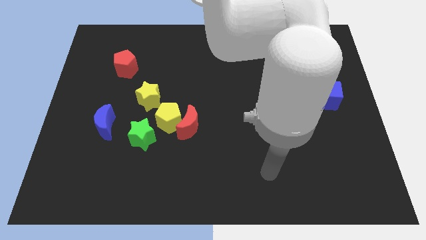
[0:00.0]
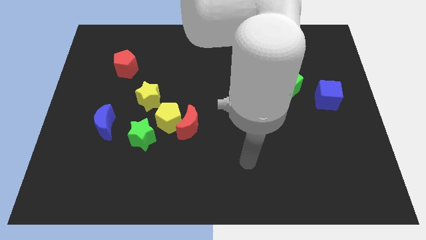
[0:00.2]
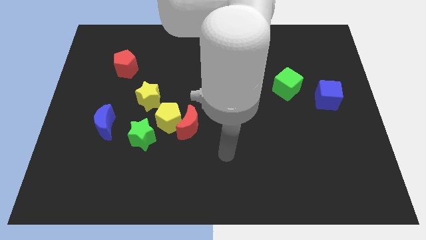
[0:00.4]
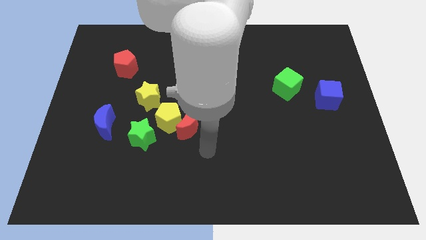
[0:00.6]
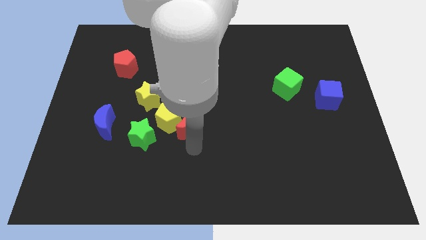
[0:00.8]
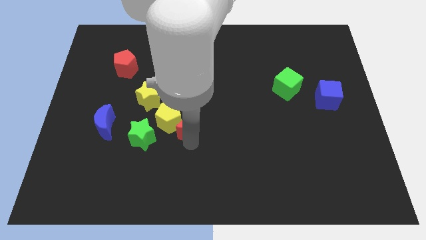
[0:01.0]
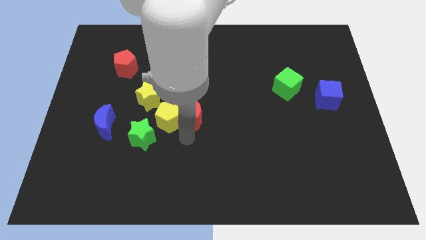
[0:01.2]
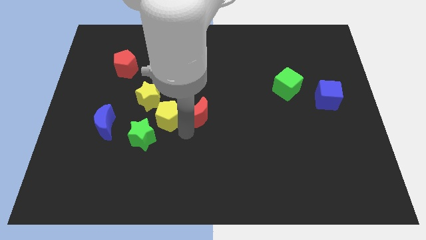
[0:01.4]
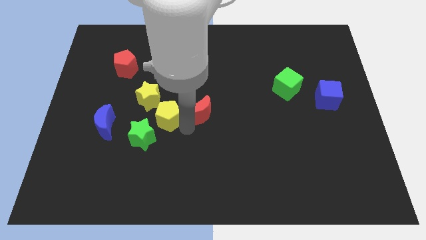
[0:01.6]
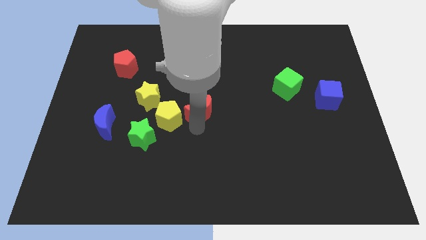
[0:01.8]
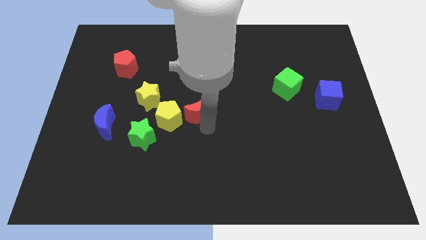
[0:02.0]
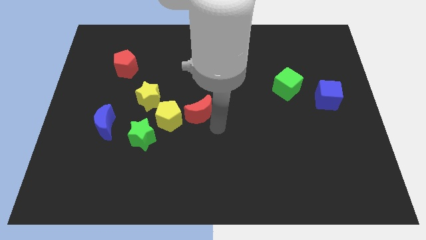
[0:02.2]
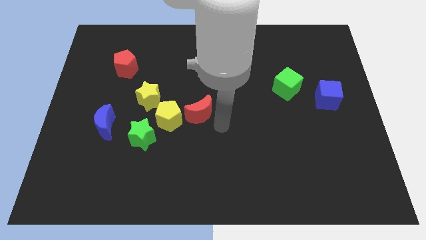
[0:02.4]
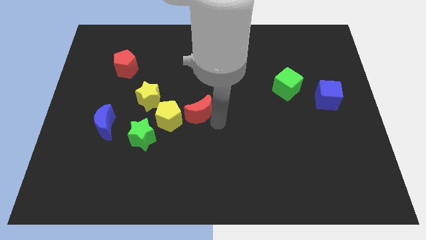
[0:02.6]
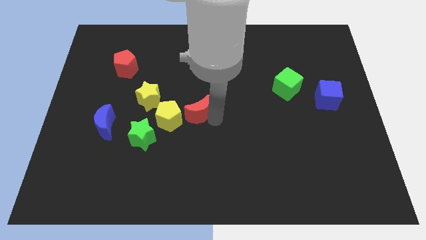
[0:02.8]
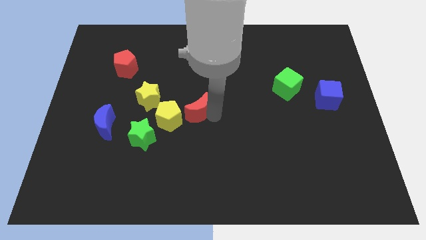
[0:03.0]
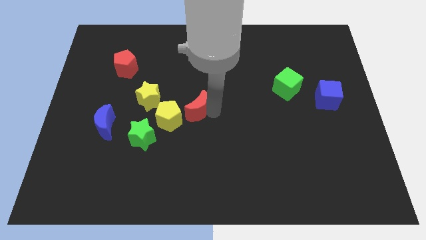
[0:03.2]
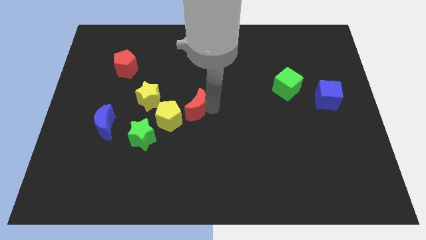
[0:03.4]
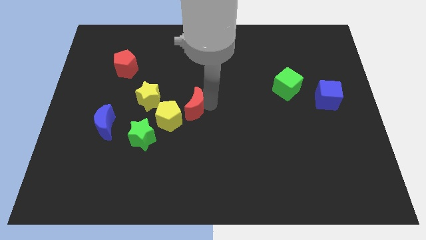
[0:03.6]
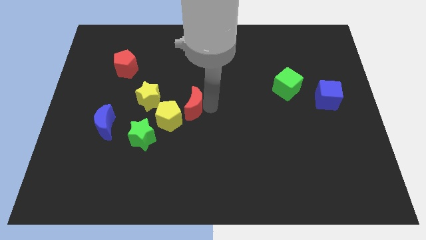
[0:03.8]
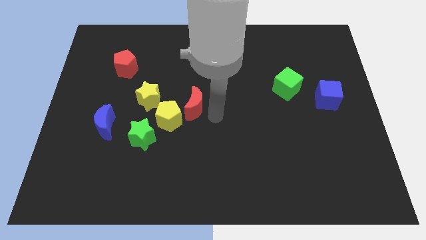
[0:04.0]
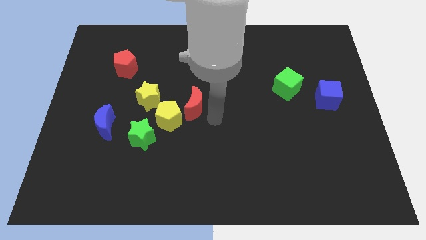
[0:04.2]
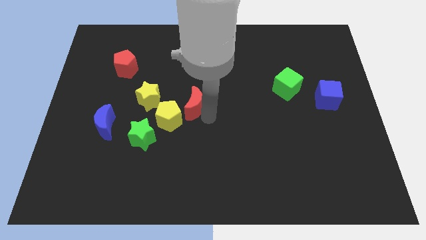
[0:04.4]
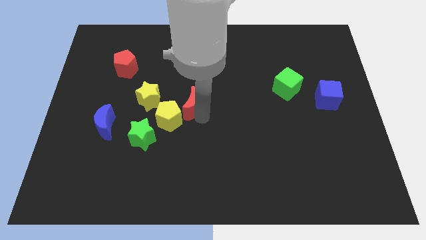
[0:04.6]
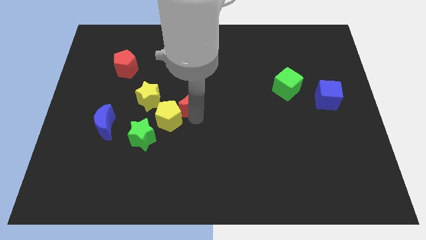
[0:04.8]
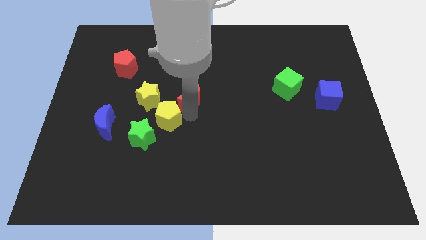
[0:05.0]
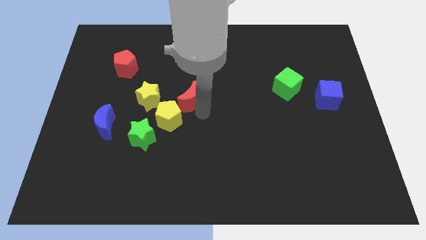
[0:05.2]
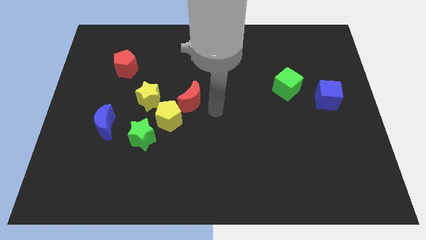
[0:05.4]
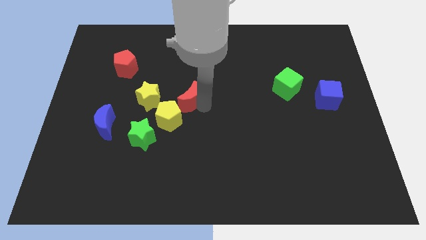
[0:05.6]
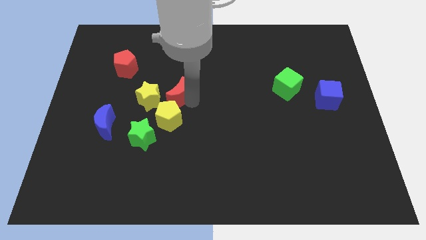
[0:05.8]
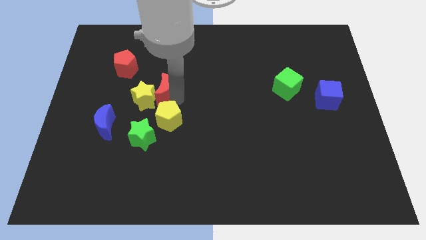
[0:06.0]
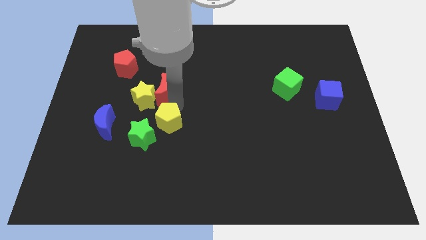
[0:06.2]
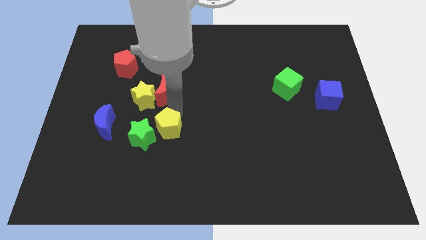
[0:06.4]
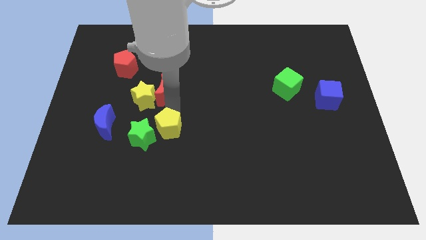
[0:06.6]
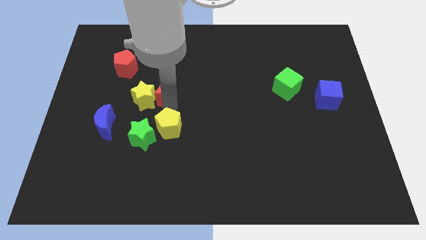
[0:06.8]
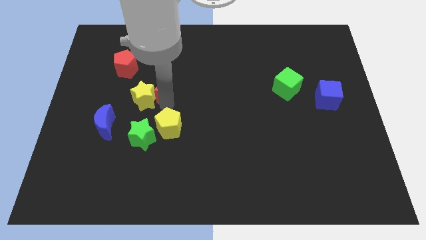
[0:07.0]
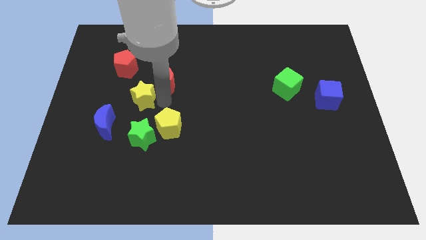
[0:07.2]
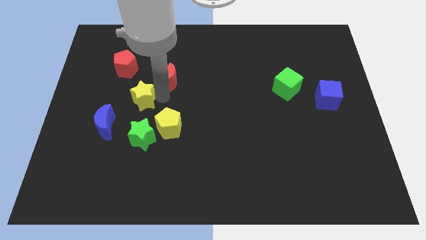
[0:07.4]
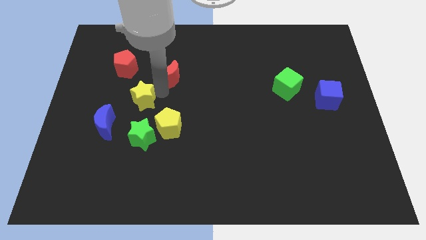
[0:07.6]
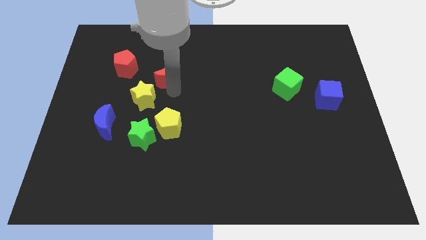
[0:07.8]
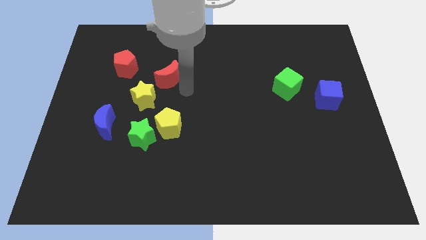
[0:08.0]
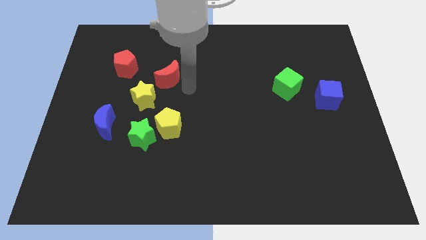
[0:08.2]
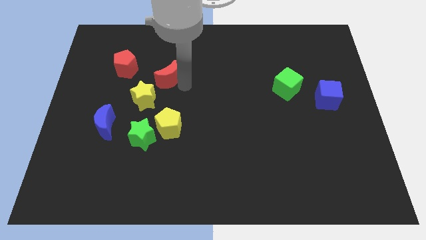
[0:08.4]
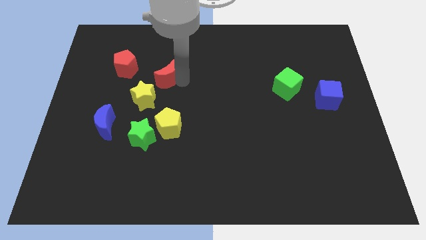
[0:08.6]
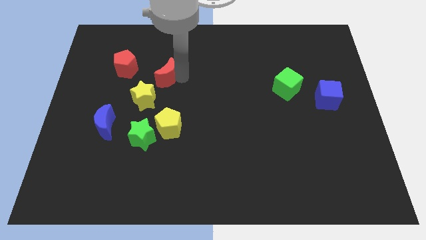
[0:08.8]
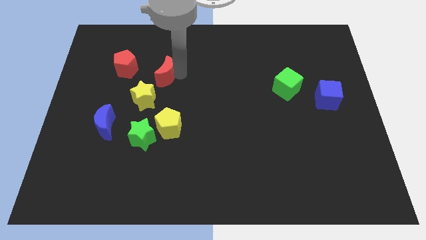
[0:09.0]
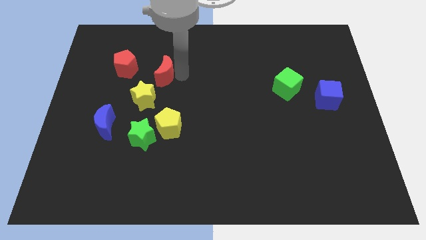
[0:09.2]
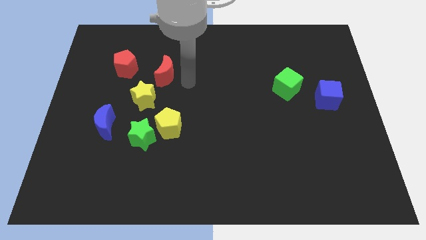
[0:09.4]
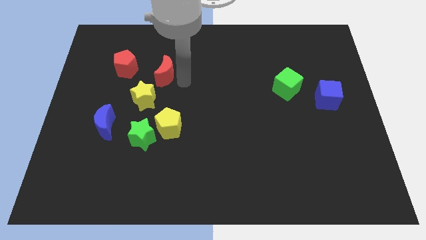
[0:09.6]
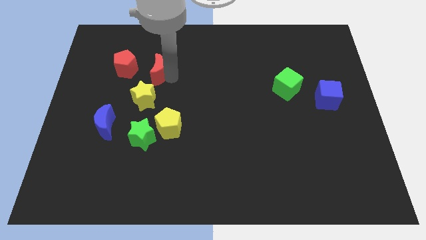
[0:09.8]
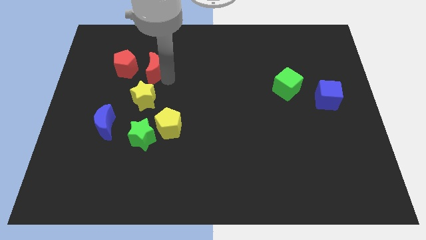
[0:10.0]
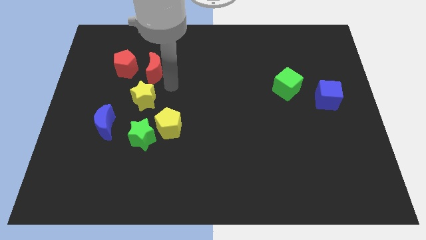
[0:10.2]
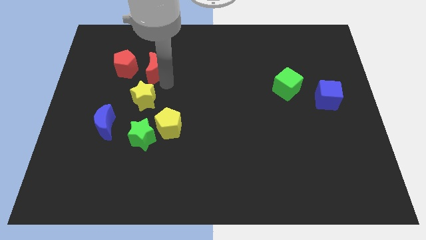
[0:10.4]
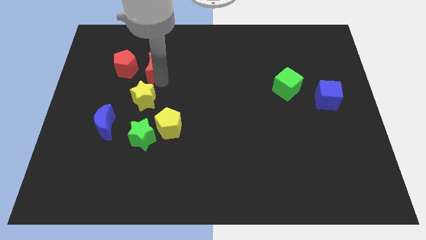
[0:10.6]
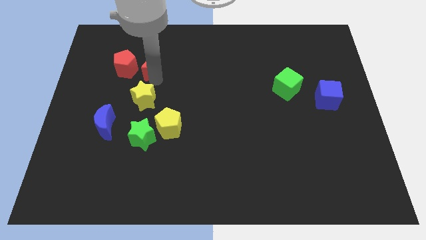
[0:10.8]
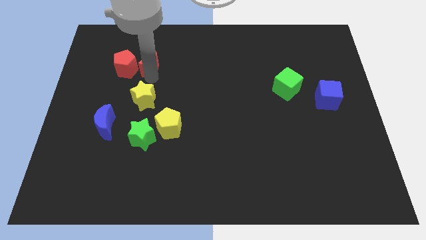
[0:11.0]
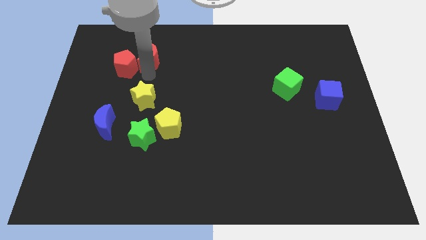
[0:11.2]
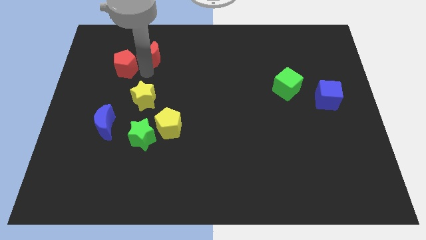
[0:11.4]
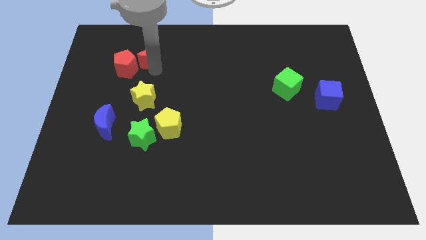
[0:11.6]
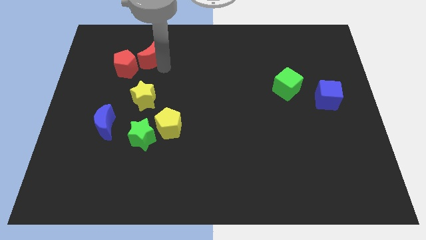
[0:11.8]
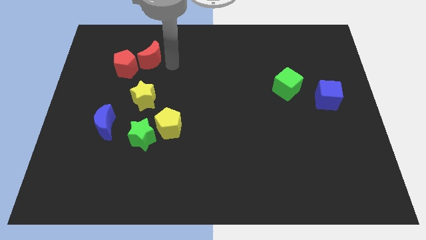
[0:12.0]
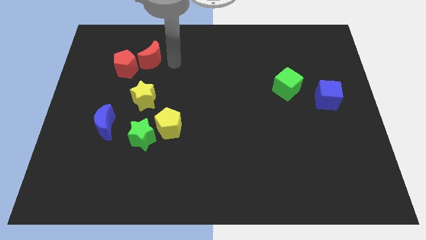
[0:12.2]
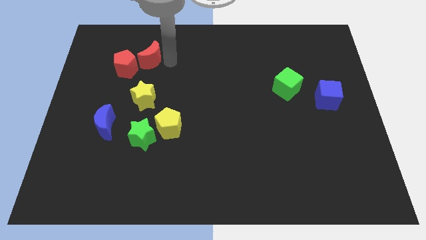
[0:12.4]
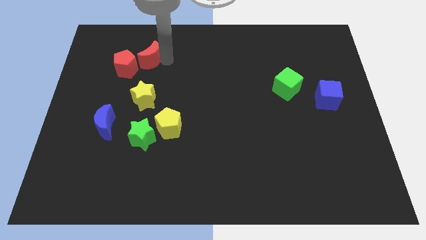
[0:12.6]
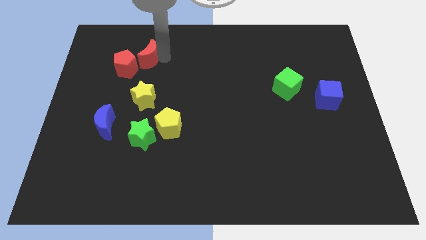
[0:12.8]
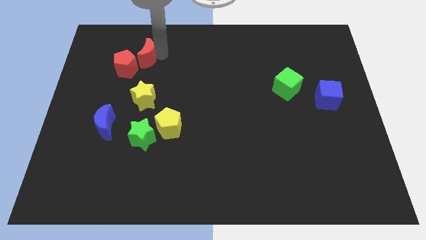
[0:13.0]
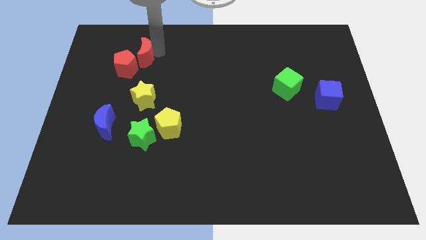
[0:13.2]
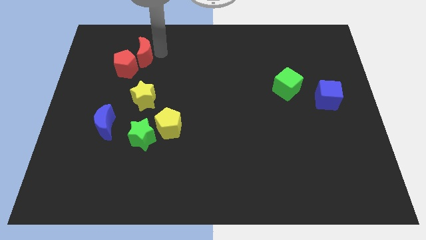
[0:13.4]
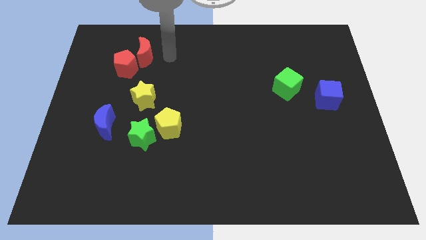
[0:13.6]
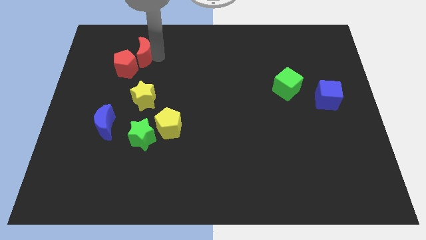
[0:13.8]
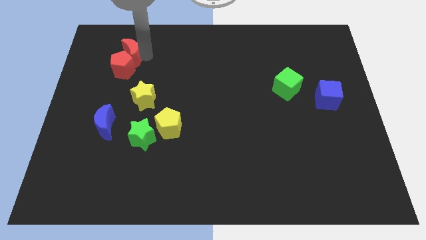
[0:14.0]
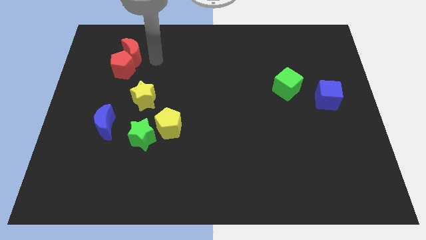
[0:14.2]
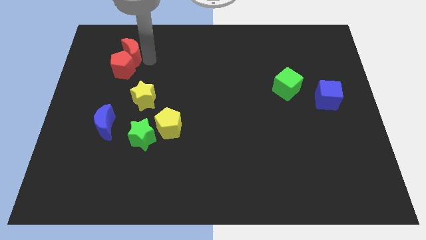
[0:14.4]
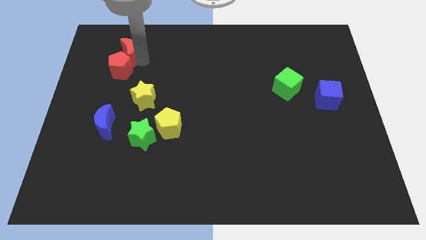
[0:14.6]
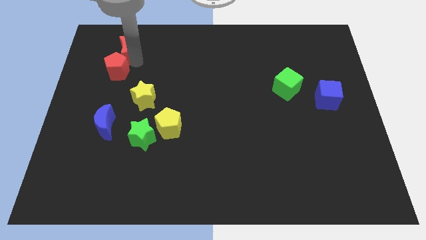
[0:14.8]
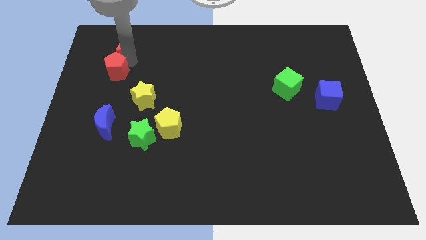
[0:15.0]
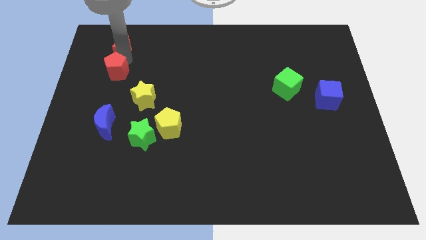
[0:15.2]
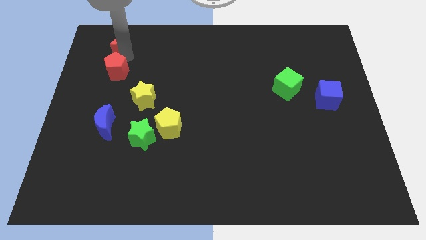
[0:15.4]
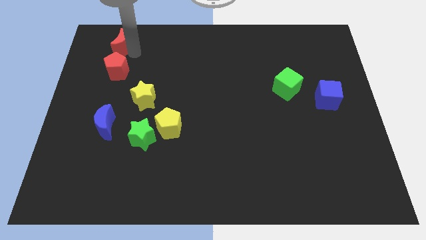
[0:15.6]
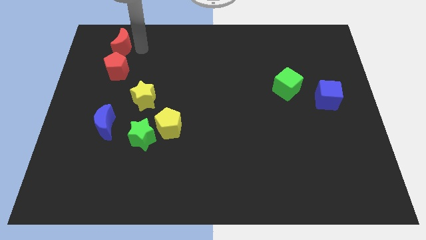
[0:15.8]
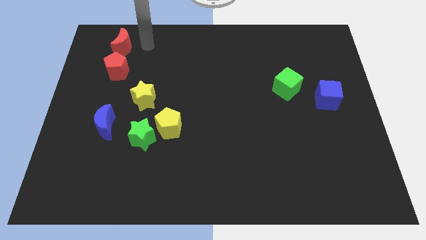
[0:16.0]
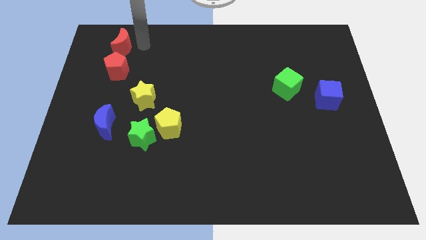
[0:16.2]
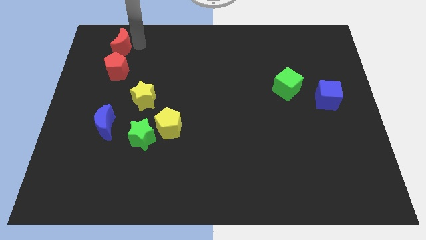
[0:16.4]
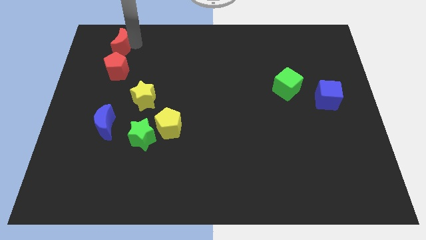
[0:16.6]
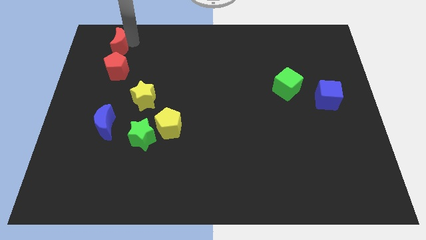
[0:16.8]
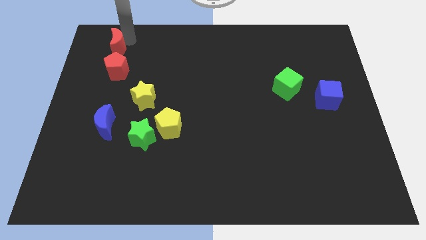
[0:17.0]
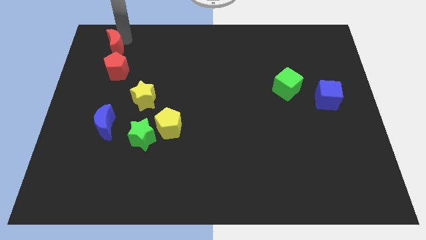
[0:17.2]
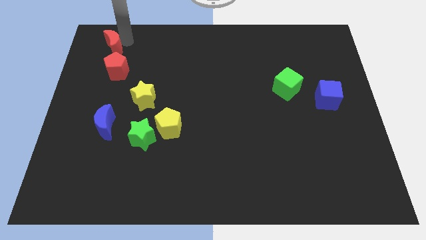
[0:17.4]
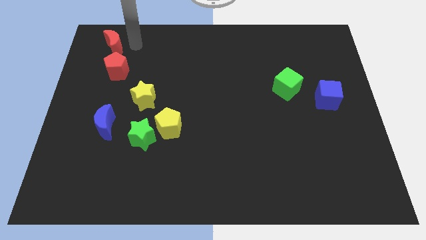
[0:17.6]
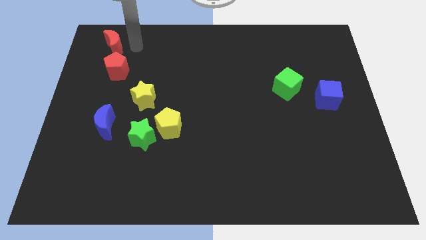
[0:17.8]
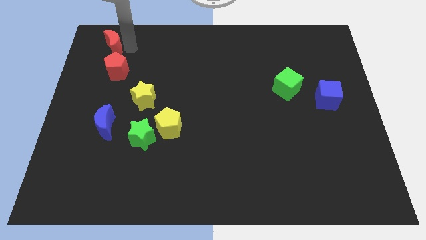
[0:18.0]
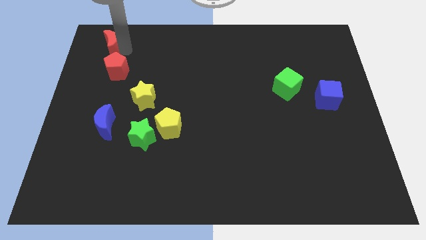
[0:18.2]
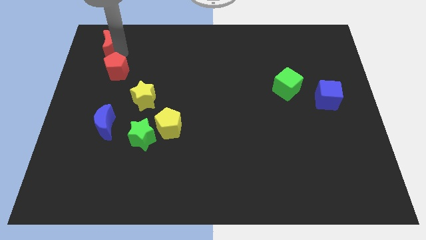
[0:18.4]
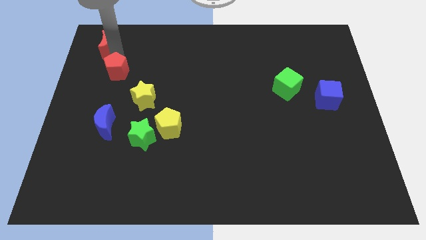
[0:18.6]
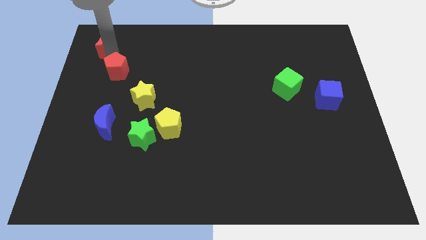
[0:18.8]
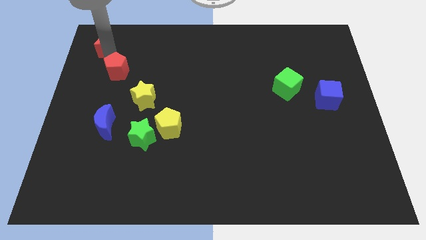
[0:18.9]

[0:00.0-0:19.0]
put the red moon to the upper left corner
